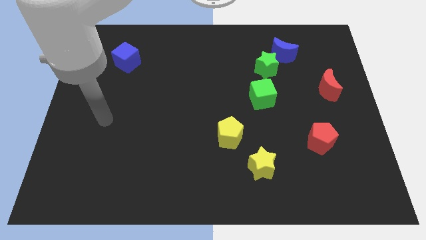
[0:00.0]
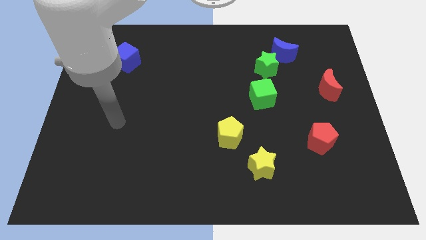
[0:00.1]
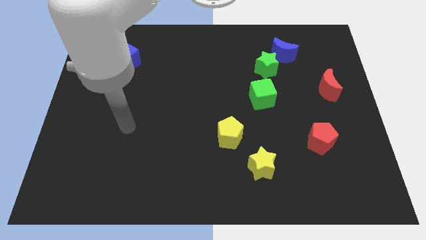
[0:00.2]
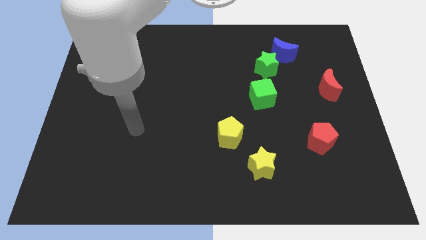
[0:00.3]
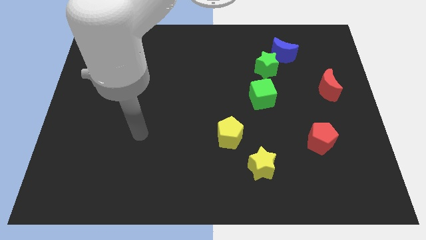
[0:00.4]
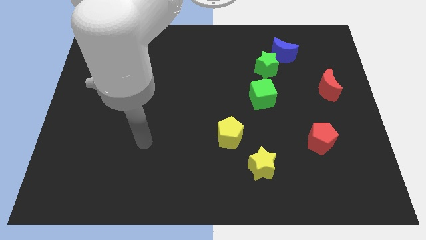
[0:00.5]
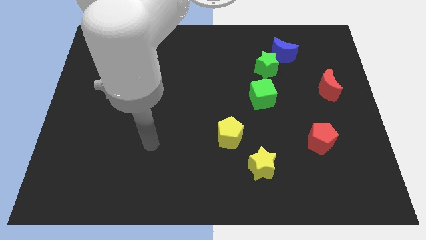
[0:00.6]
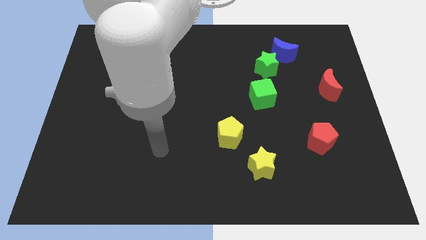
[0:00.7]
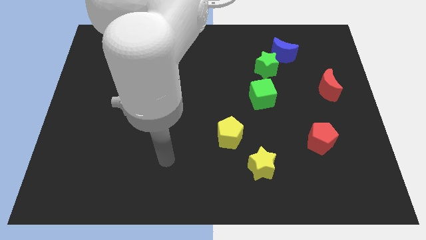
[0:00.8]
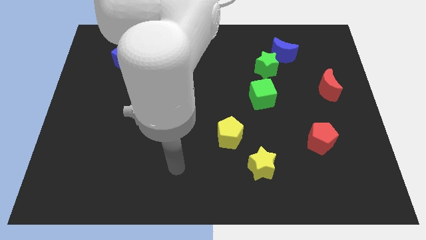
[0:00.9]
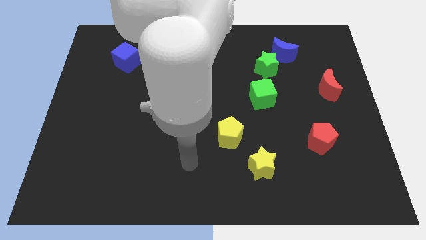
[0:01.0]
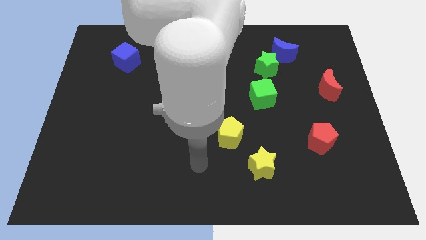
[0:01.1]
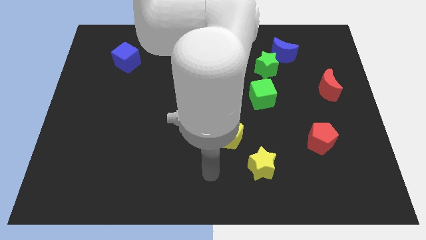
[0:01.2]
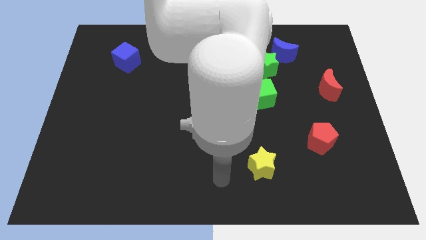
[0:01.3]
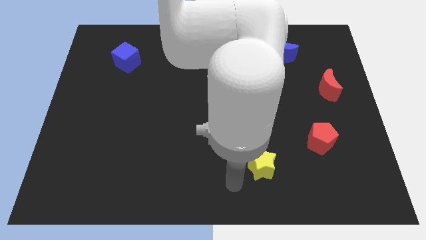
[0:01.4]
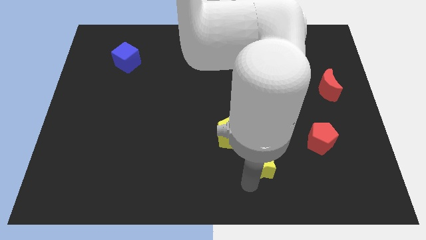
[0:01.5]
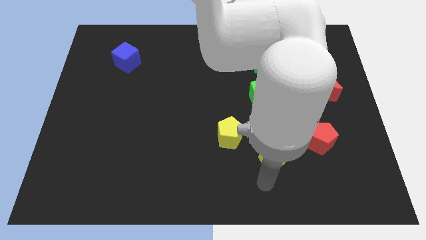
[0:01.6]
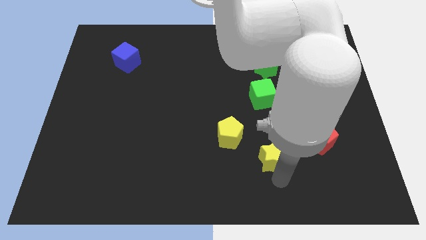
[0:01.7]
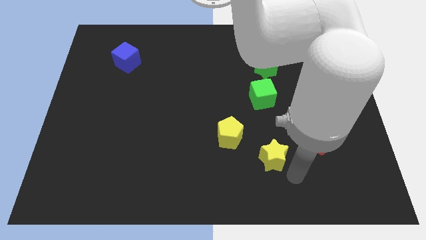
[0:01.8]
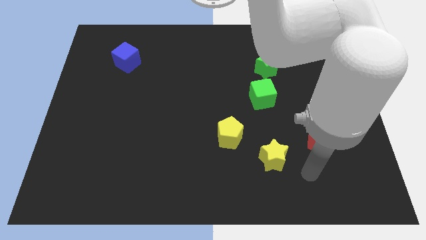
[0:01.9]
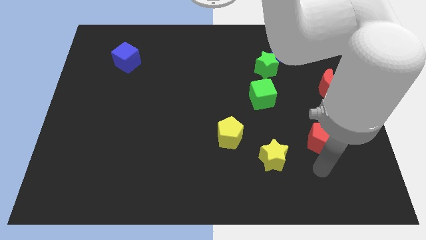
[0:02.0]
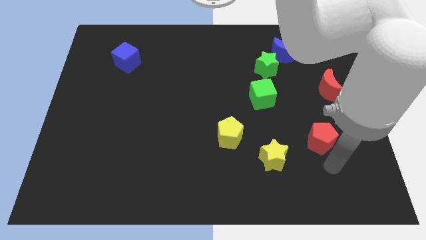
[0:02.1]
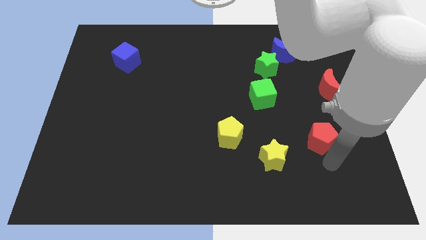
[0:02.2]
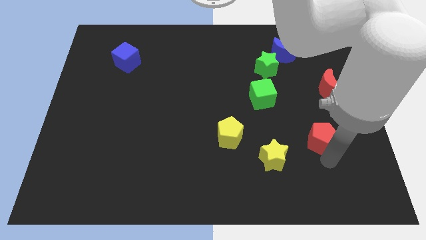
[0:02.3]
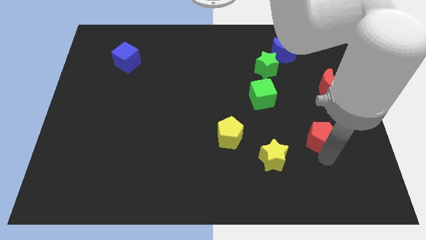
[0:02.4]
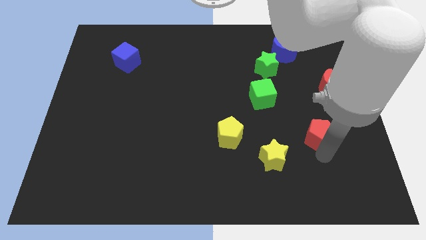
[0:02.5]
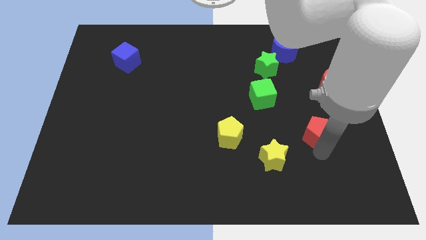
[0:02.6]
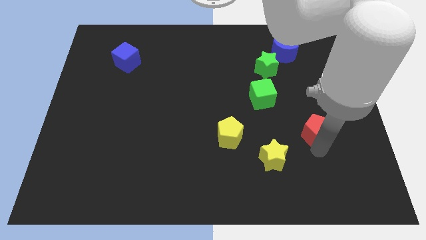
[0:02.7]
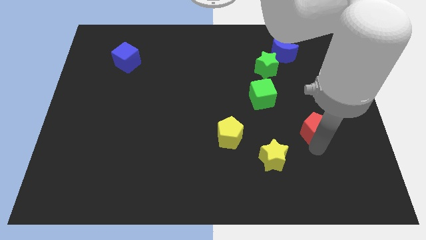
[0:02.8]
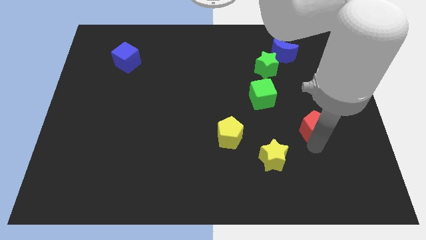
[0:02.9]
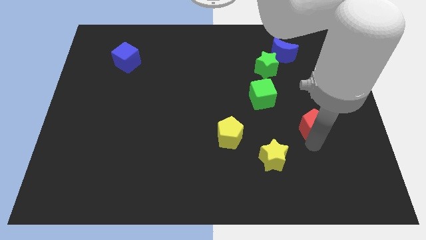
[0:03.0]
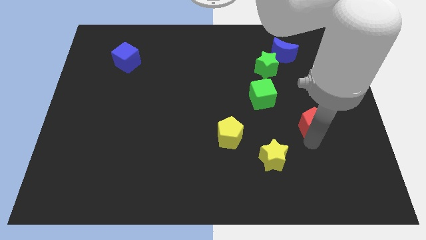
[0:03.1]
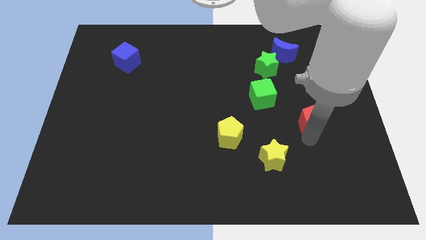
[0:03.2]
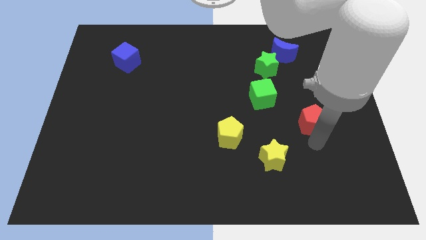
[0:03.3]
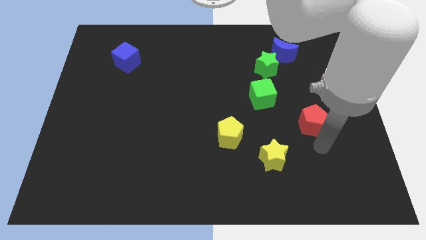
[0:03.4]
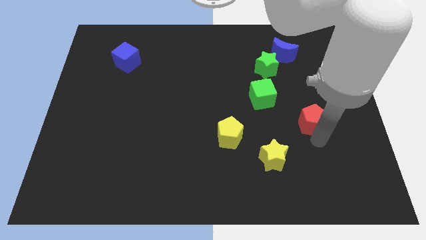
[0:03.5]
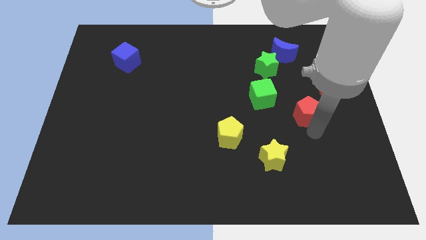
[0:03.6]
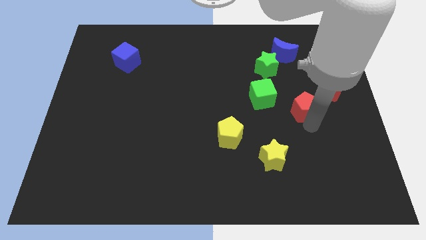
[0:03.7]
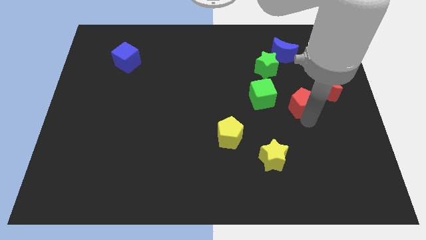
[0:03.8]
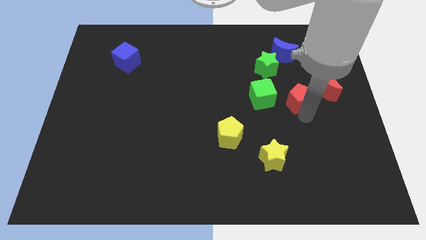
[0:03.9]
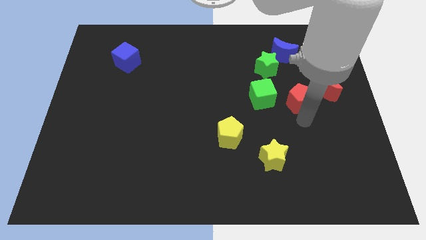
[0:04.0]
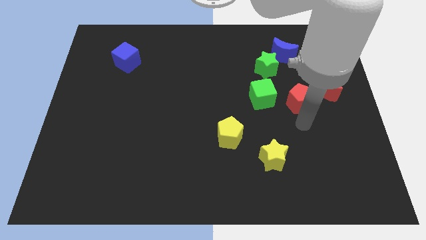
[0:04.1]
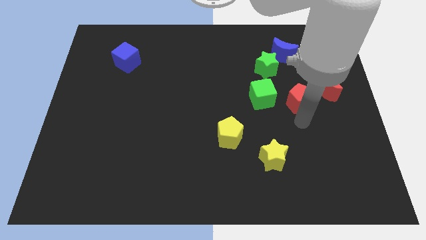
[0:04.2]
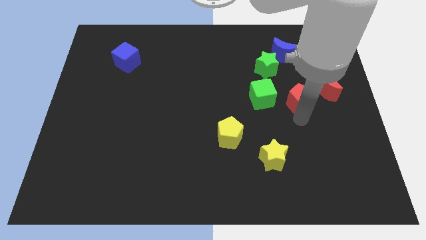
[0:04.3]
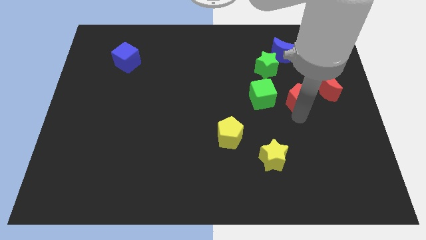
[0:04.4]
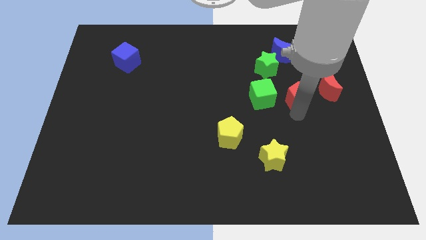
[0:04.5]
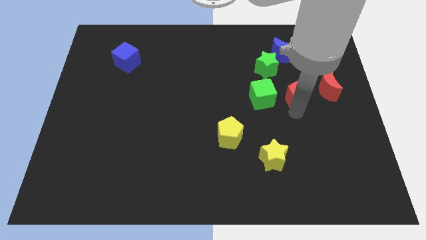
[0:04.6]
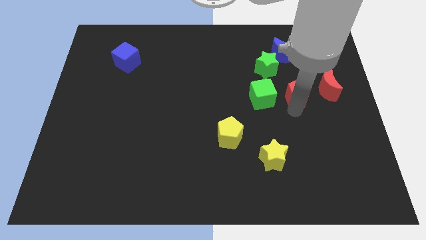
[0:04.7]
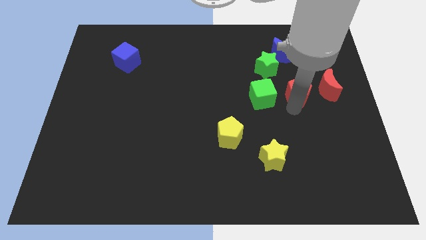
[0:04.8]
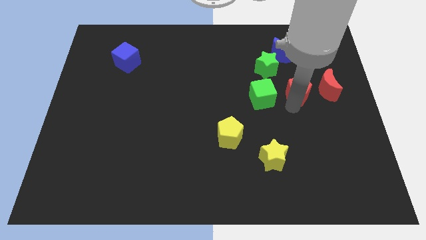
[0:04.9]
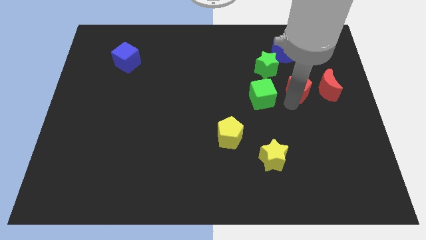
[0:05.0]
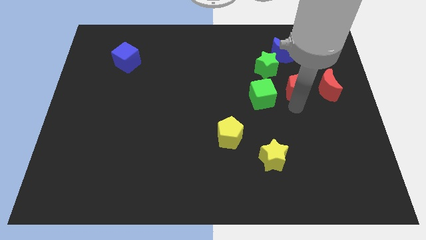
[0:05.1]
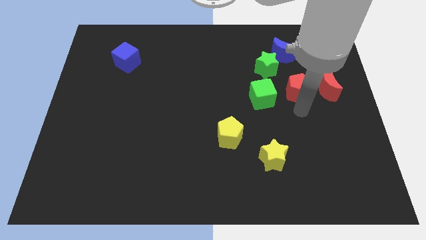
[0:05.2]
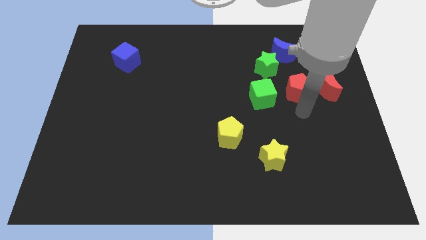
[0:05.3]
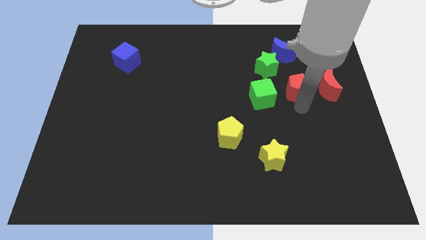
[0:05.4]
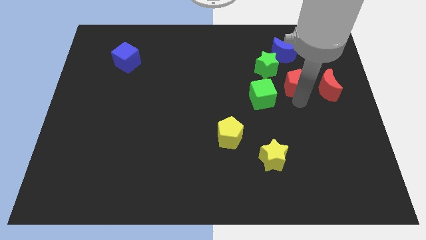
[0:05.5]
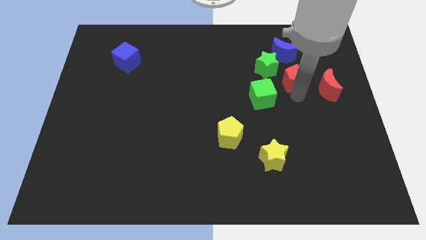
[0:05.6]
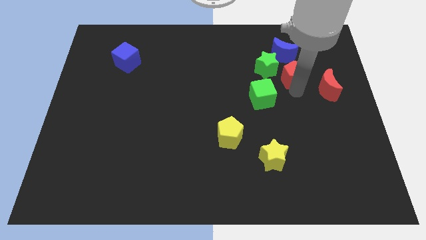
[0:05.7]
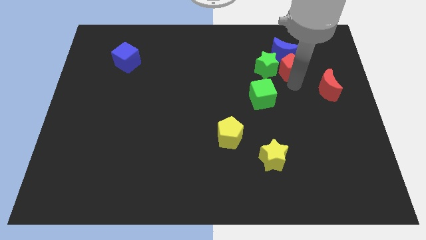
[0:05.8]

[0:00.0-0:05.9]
move the red pentagon next to the blue moon

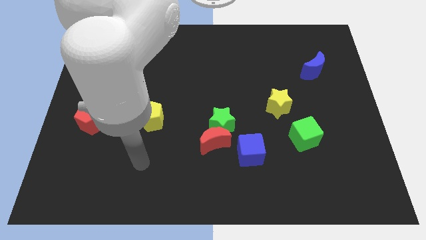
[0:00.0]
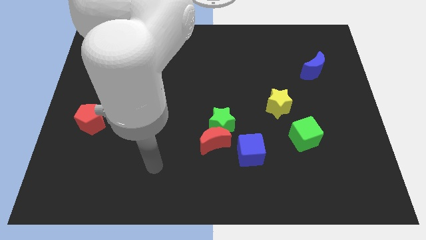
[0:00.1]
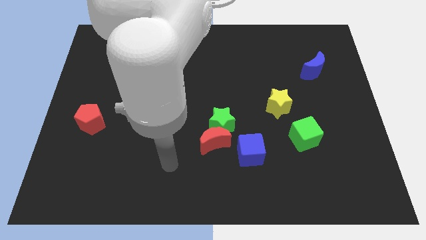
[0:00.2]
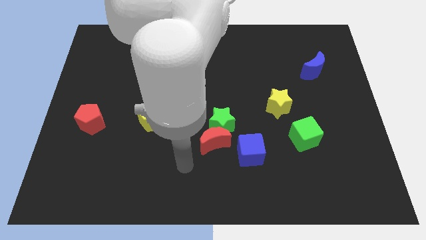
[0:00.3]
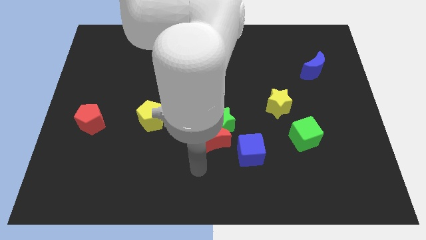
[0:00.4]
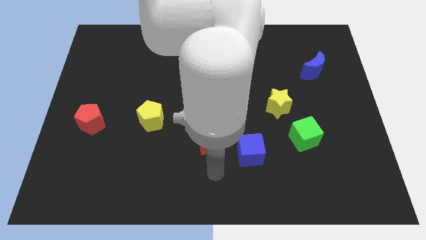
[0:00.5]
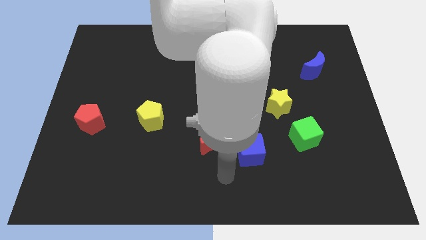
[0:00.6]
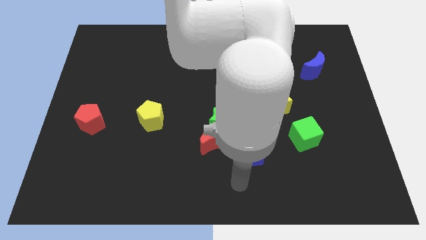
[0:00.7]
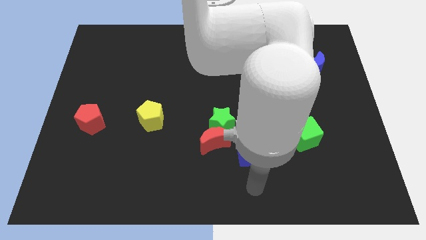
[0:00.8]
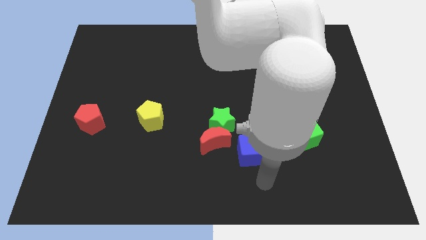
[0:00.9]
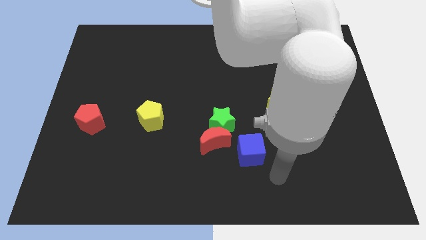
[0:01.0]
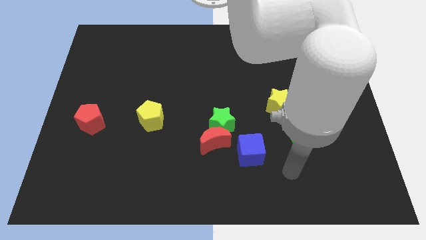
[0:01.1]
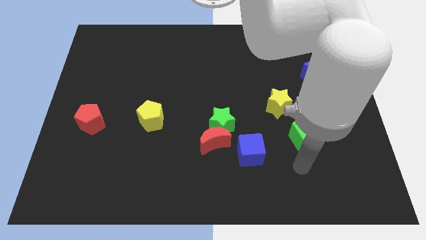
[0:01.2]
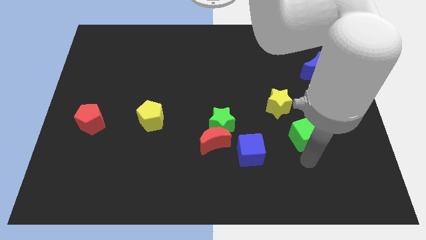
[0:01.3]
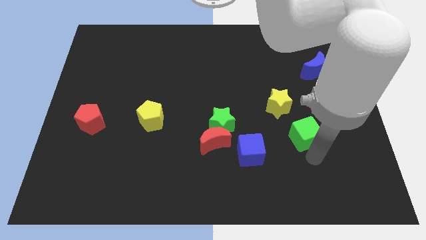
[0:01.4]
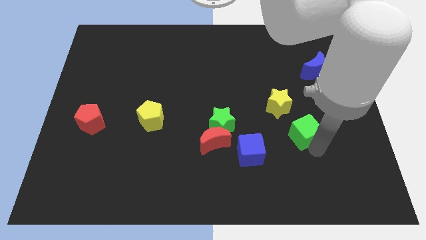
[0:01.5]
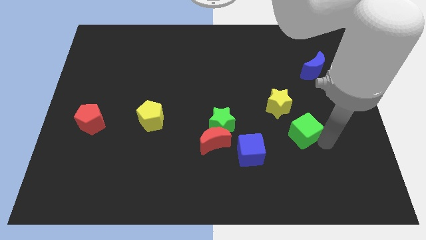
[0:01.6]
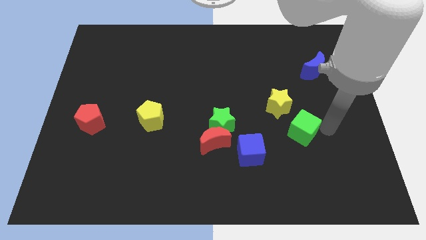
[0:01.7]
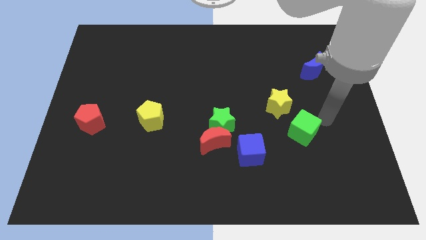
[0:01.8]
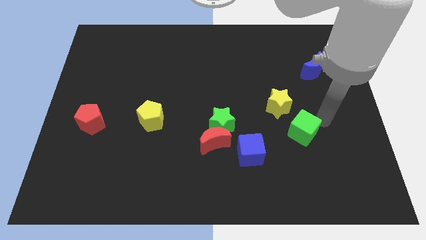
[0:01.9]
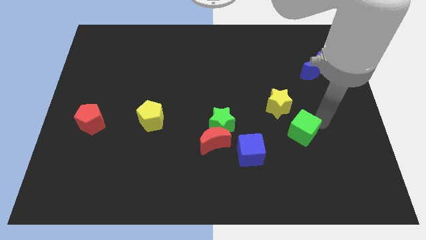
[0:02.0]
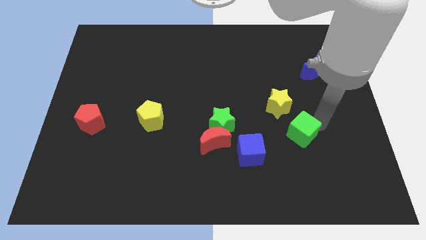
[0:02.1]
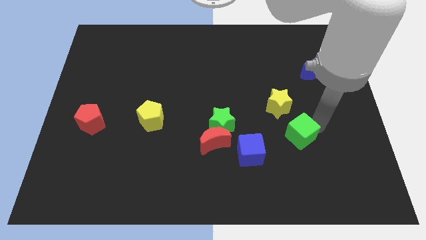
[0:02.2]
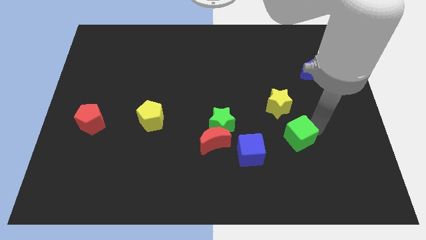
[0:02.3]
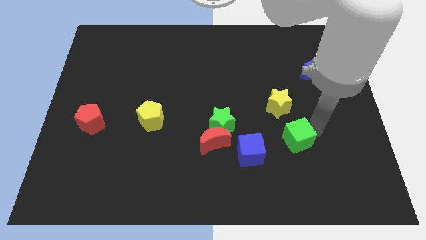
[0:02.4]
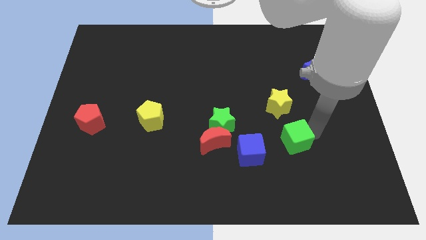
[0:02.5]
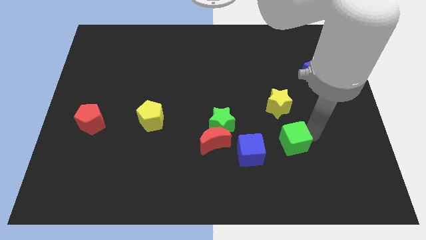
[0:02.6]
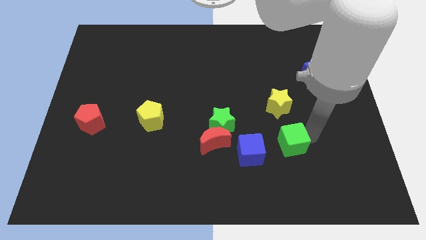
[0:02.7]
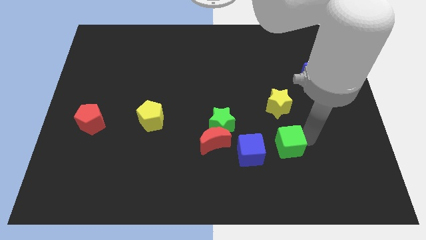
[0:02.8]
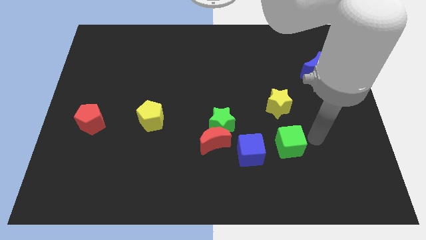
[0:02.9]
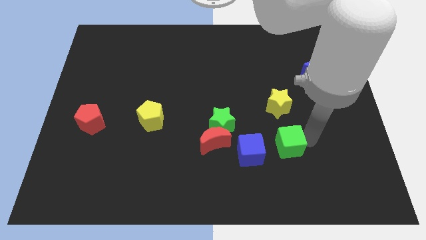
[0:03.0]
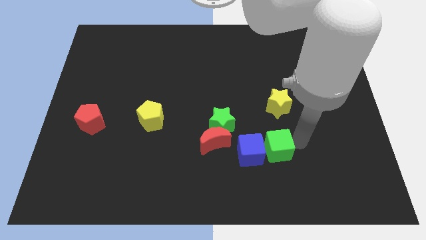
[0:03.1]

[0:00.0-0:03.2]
push the green cube towards the blue cube
